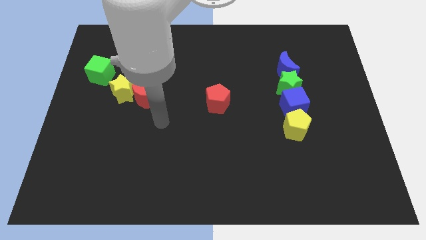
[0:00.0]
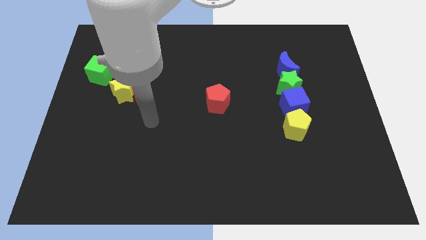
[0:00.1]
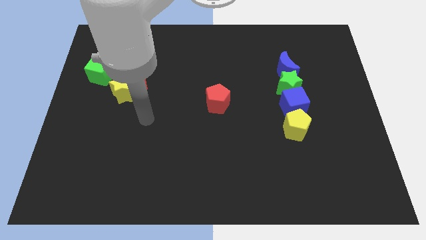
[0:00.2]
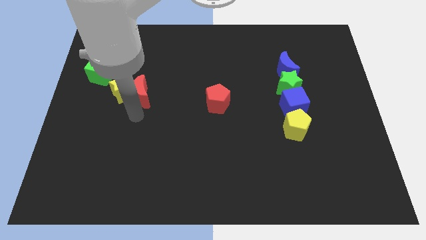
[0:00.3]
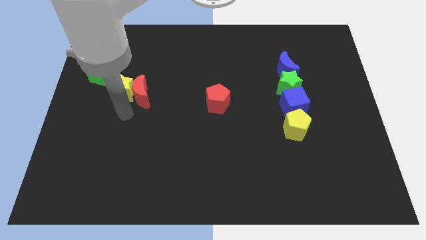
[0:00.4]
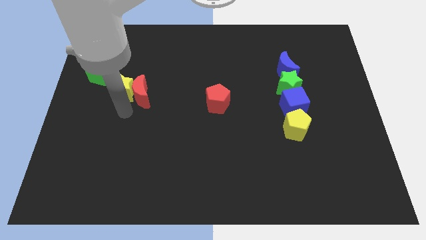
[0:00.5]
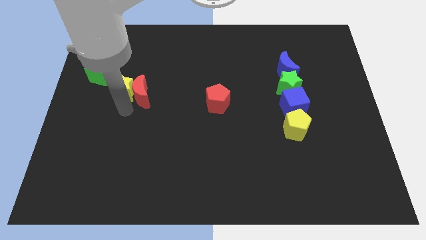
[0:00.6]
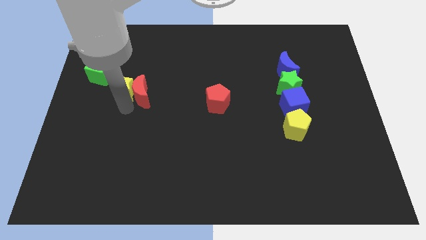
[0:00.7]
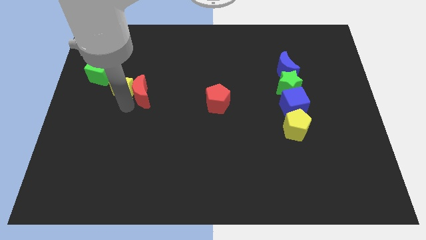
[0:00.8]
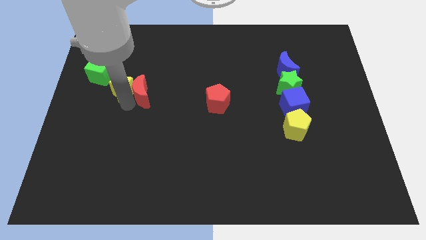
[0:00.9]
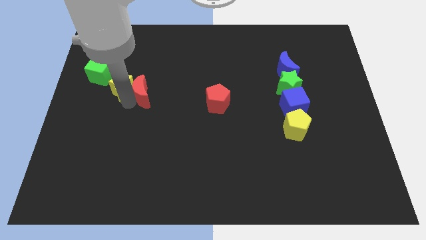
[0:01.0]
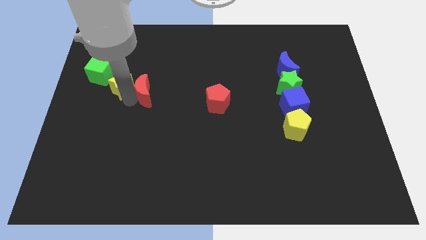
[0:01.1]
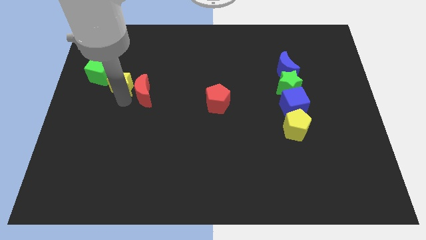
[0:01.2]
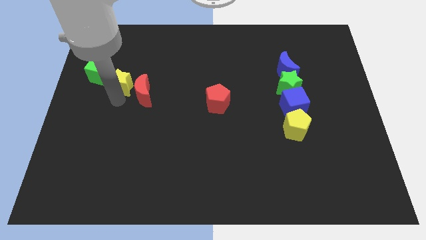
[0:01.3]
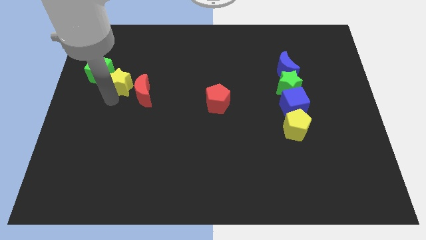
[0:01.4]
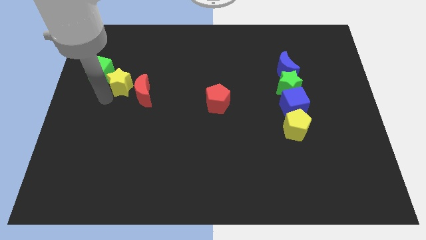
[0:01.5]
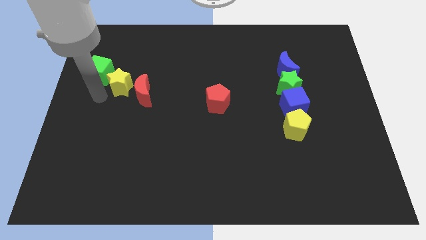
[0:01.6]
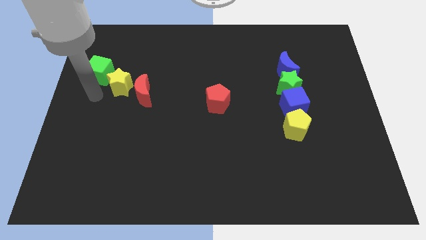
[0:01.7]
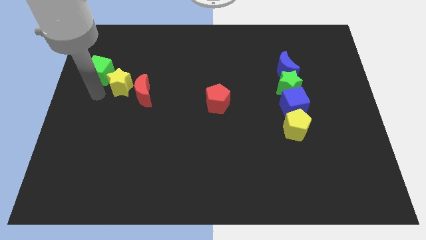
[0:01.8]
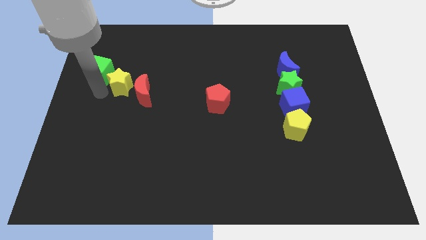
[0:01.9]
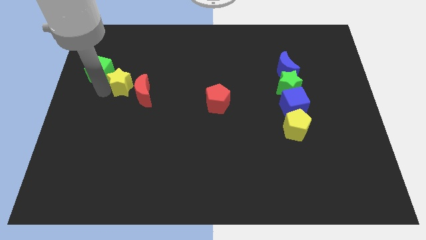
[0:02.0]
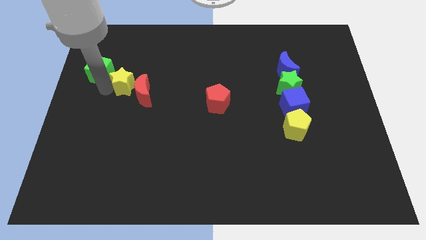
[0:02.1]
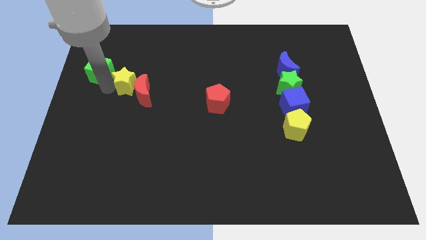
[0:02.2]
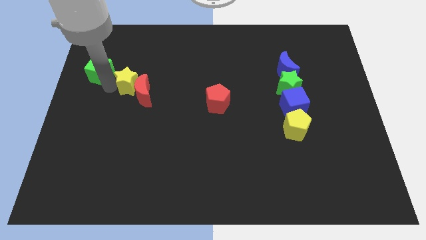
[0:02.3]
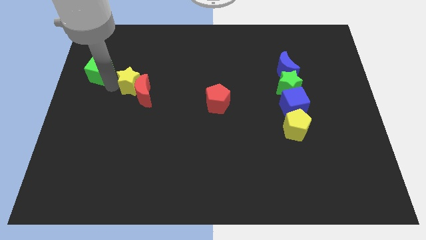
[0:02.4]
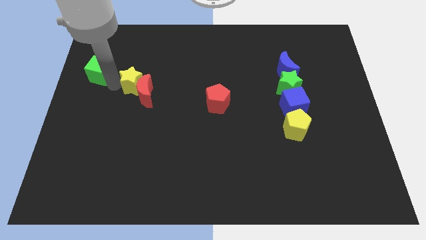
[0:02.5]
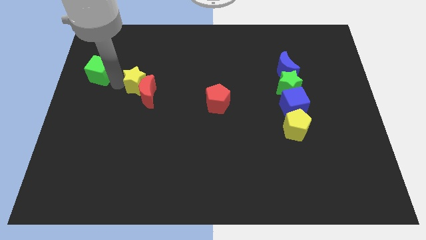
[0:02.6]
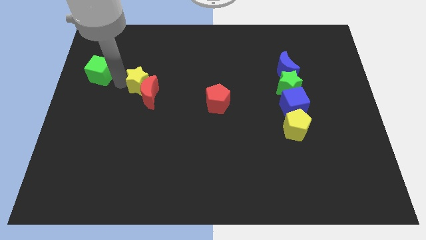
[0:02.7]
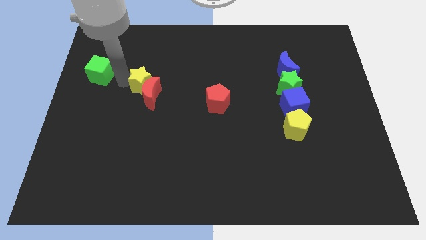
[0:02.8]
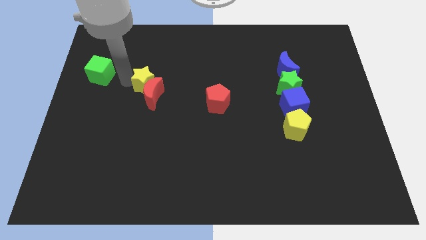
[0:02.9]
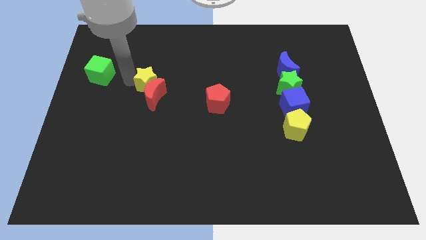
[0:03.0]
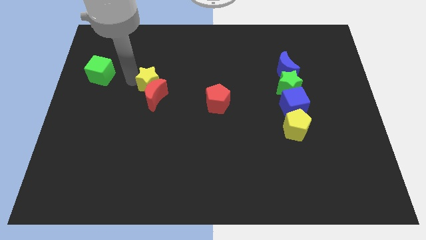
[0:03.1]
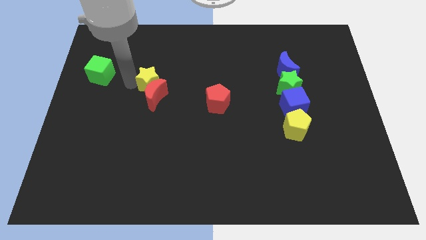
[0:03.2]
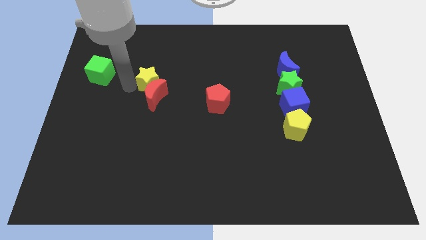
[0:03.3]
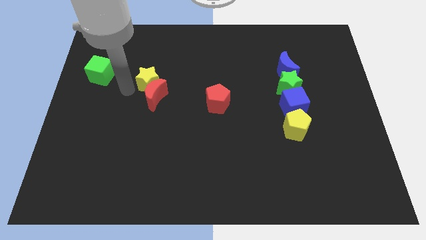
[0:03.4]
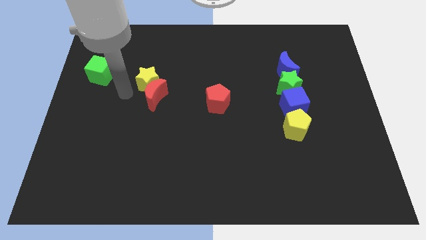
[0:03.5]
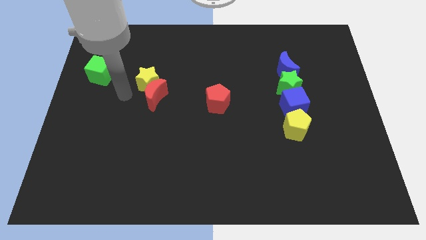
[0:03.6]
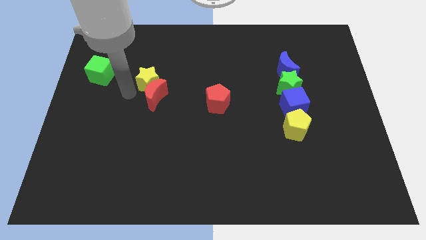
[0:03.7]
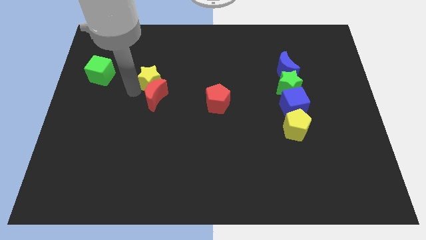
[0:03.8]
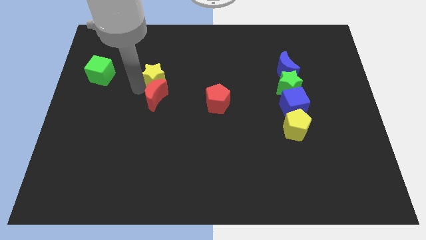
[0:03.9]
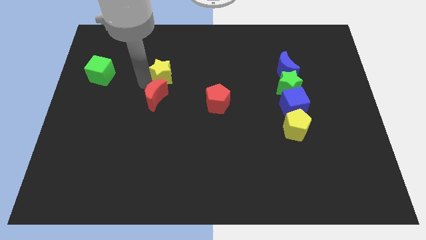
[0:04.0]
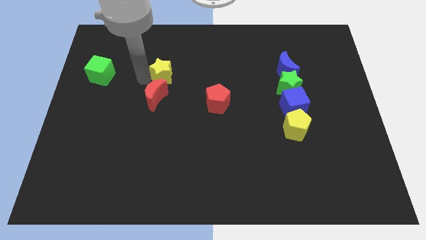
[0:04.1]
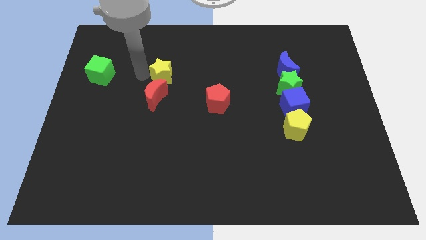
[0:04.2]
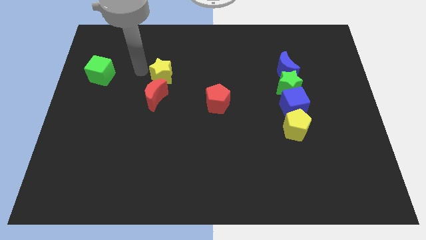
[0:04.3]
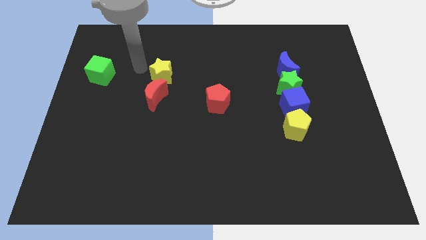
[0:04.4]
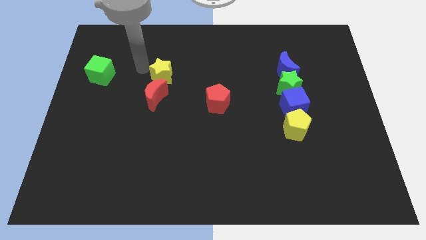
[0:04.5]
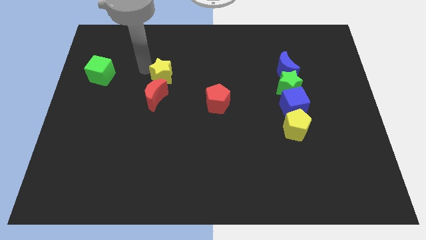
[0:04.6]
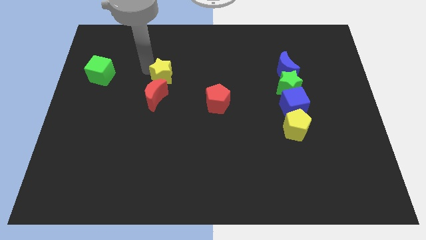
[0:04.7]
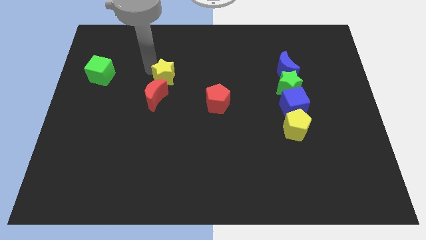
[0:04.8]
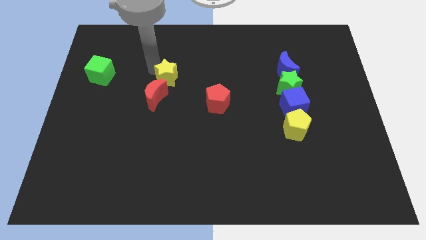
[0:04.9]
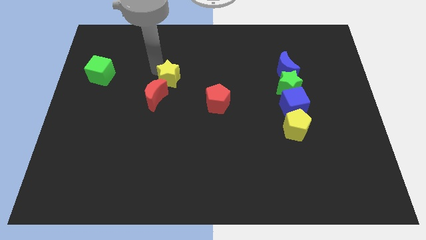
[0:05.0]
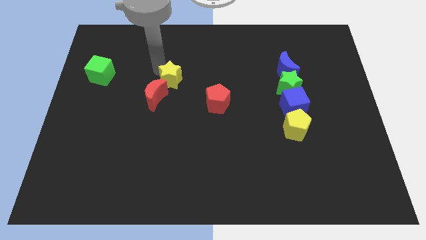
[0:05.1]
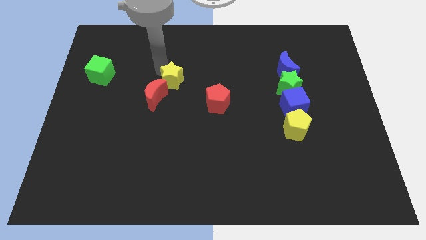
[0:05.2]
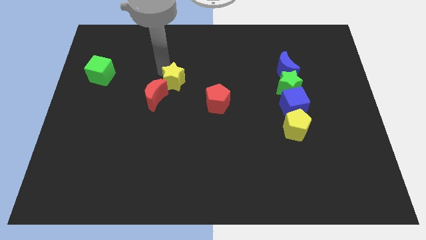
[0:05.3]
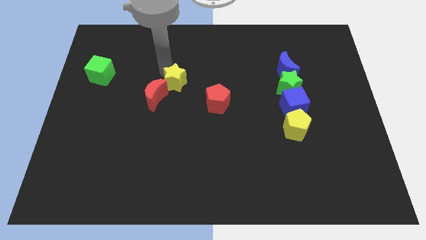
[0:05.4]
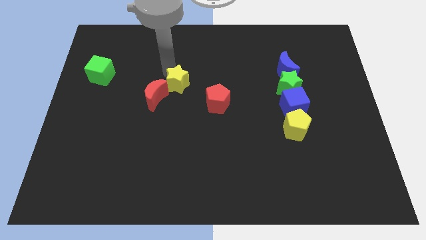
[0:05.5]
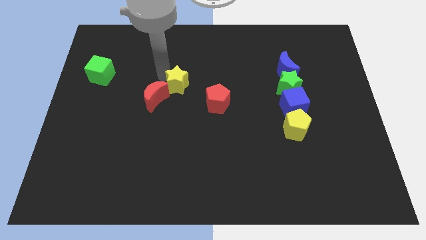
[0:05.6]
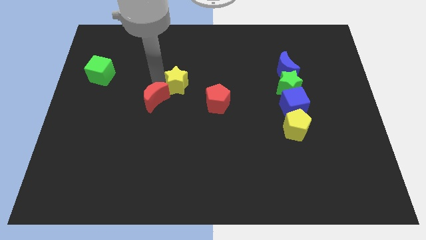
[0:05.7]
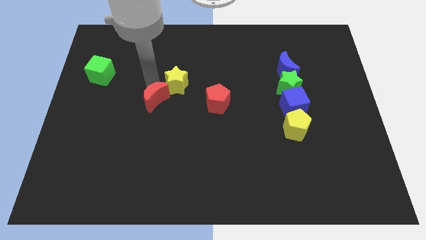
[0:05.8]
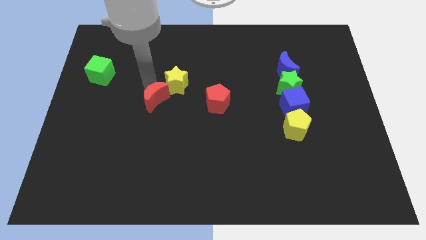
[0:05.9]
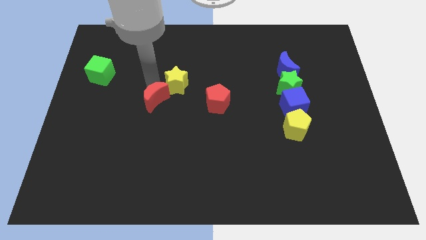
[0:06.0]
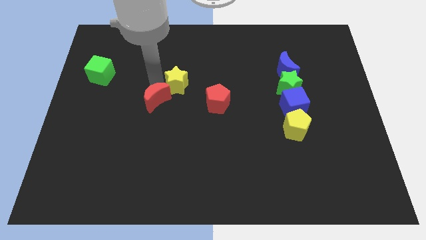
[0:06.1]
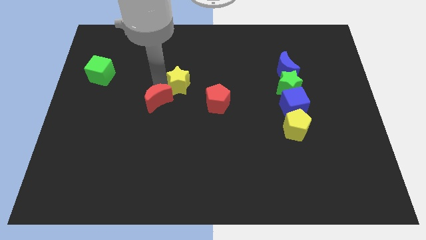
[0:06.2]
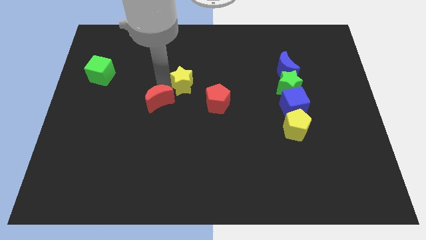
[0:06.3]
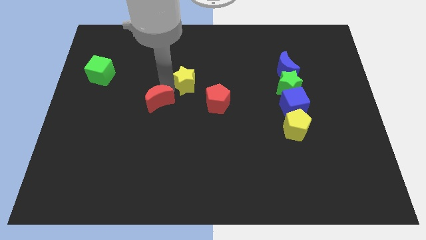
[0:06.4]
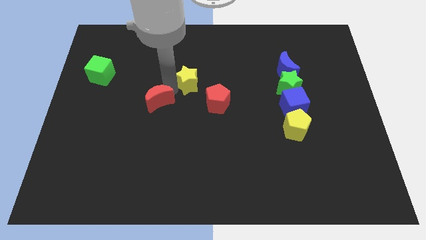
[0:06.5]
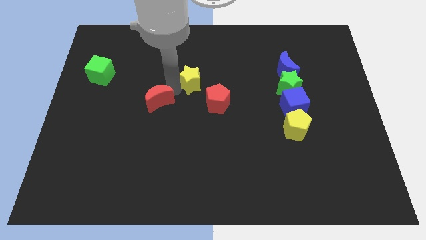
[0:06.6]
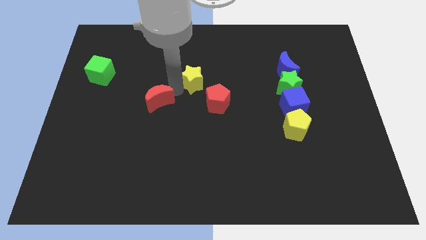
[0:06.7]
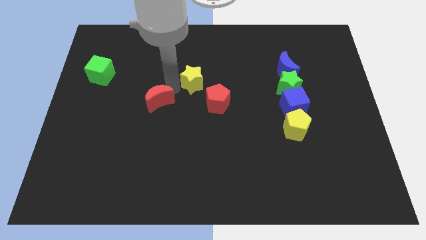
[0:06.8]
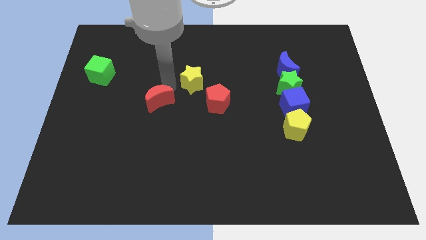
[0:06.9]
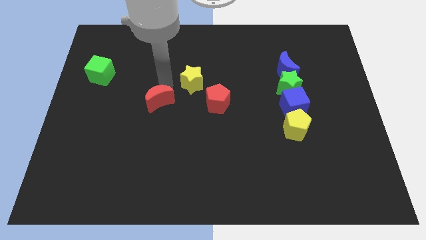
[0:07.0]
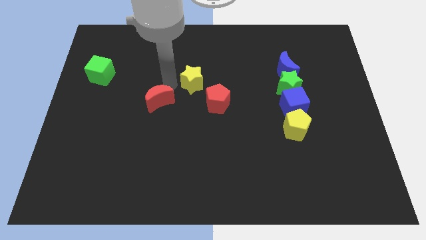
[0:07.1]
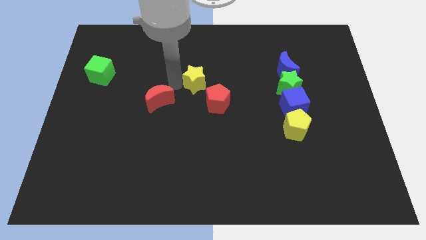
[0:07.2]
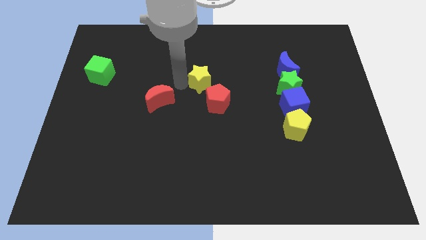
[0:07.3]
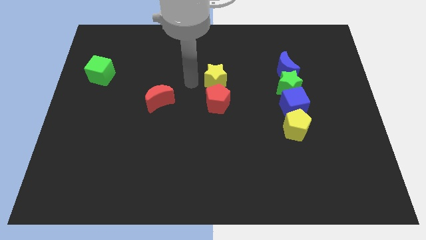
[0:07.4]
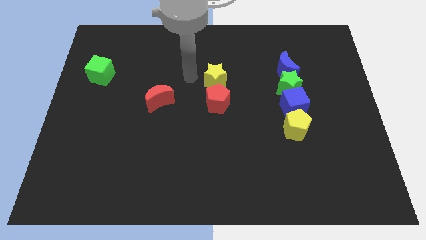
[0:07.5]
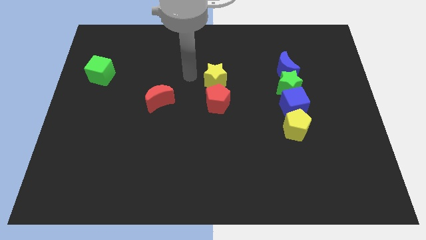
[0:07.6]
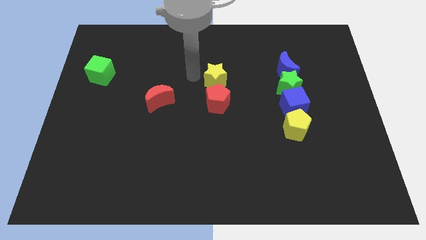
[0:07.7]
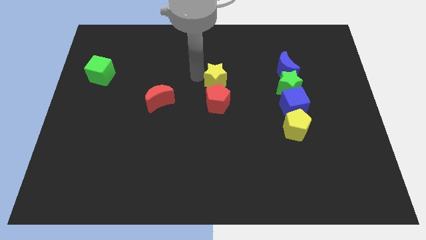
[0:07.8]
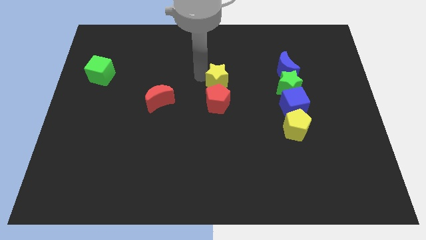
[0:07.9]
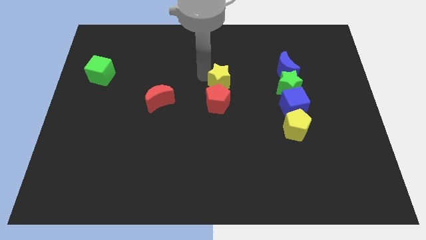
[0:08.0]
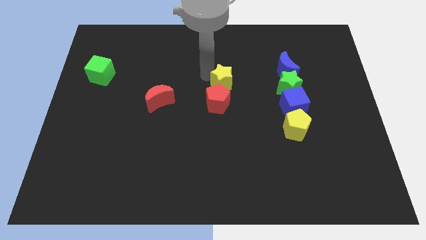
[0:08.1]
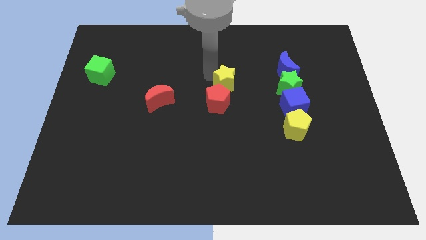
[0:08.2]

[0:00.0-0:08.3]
put the yellow star to the left of the green star
